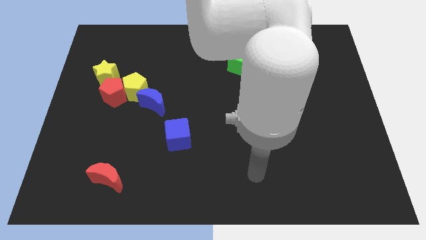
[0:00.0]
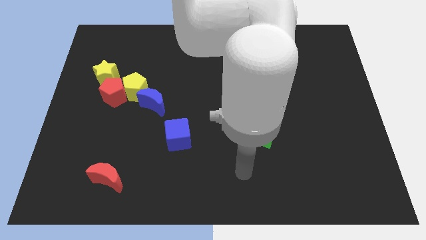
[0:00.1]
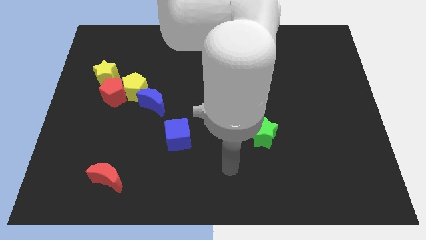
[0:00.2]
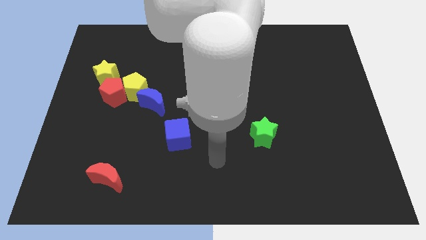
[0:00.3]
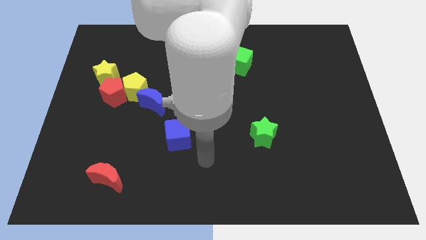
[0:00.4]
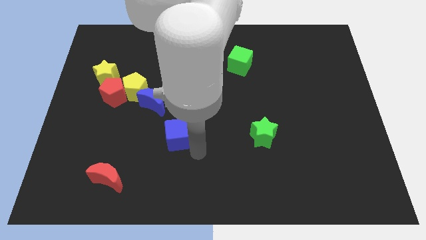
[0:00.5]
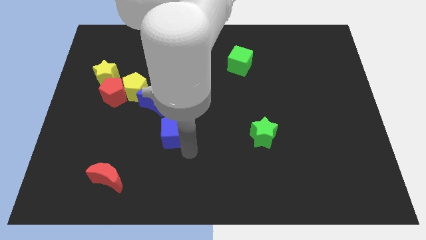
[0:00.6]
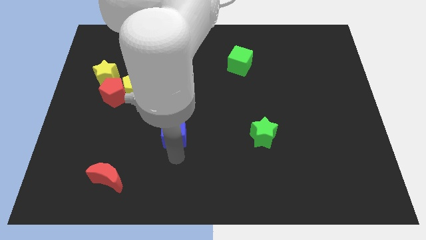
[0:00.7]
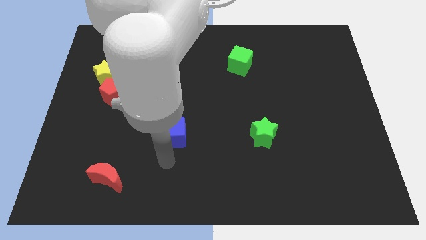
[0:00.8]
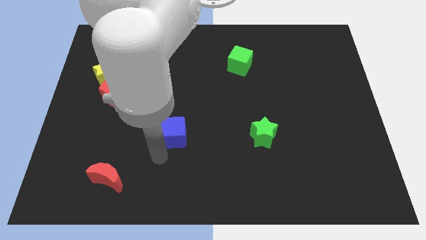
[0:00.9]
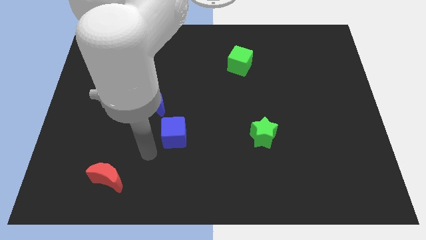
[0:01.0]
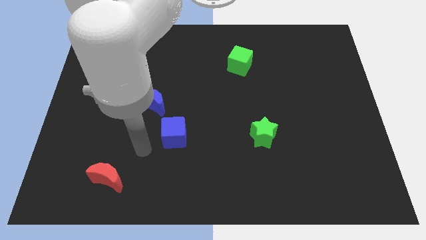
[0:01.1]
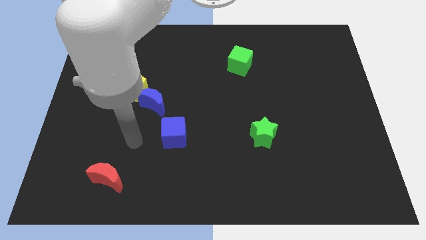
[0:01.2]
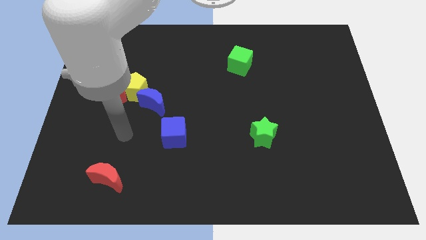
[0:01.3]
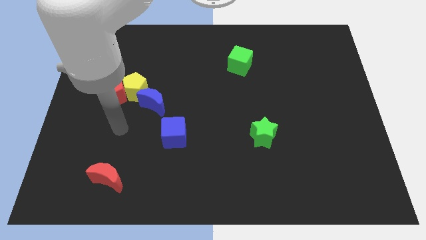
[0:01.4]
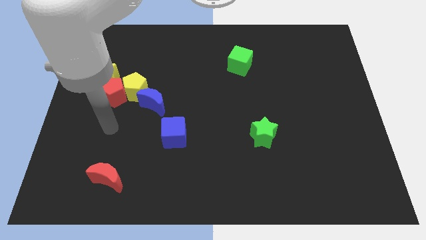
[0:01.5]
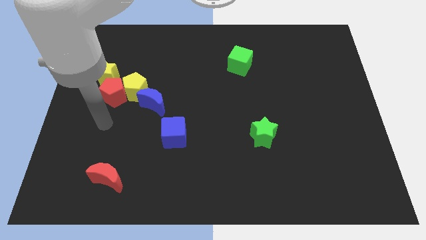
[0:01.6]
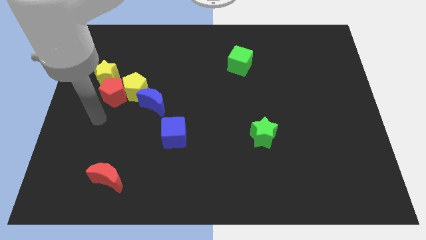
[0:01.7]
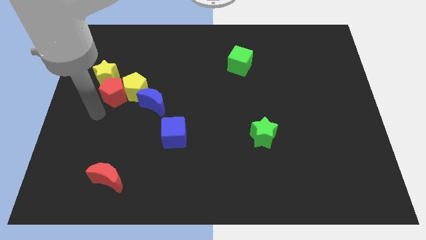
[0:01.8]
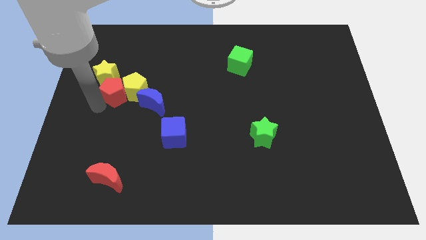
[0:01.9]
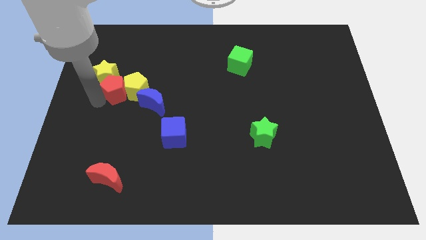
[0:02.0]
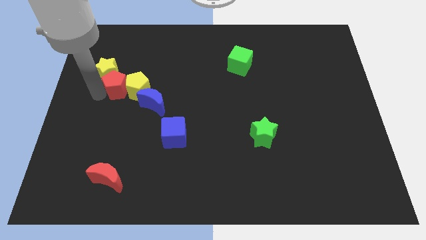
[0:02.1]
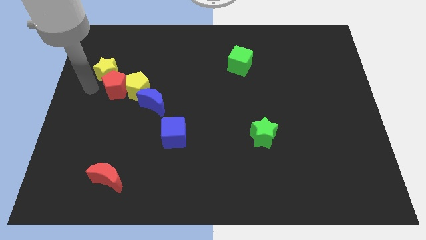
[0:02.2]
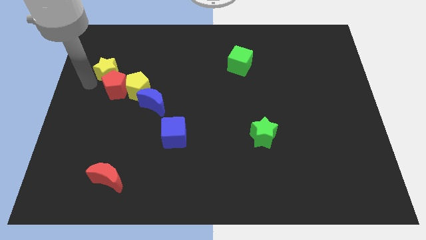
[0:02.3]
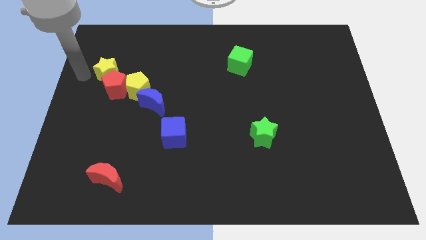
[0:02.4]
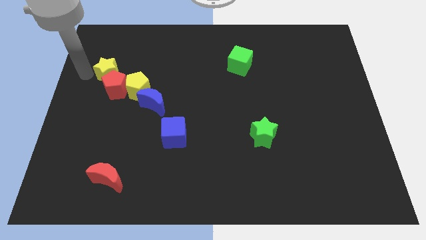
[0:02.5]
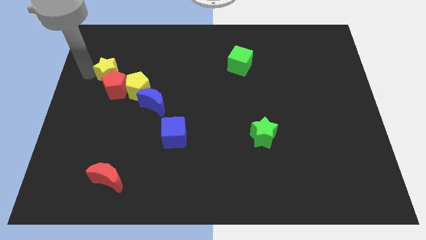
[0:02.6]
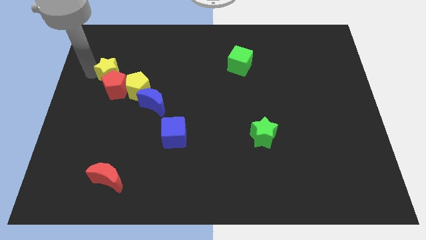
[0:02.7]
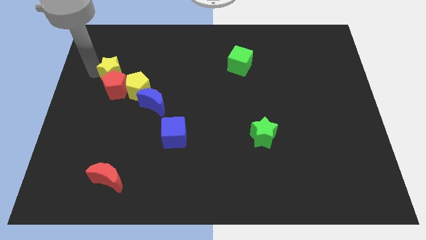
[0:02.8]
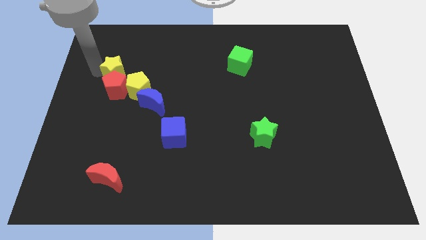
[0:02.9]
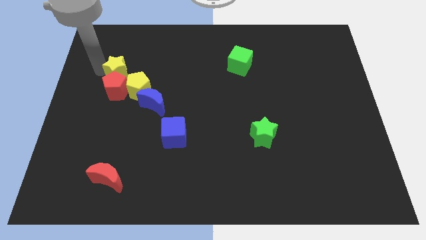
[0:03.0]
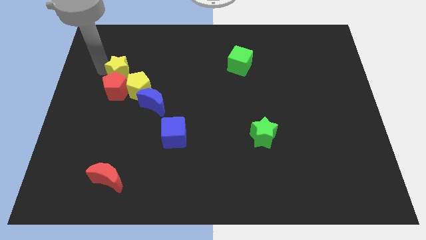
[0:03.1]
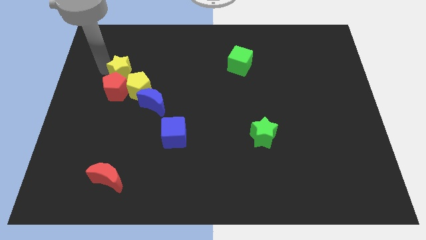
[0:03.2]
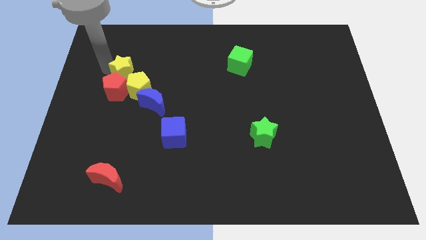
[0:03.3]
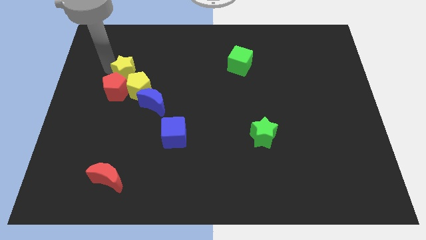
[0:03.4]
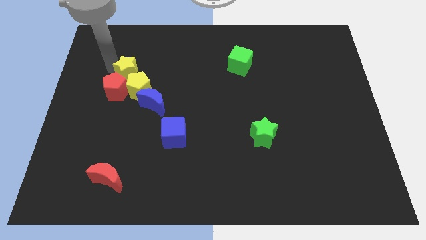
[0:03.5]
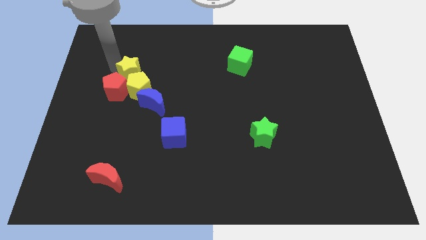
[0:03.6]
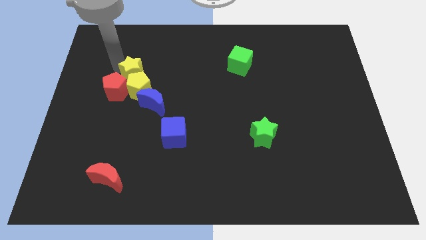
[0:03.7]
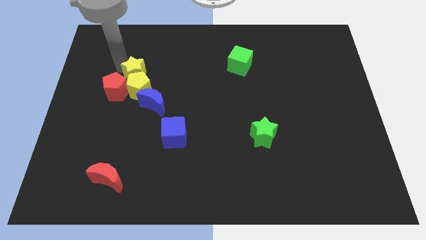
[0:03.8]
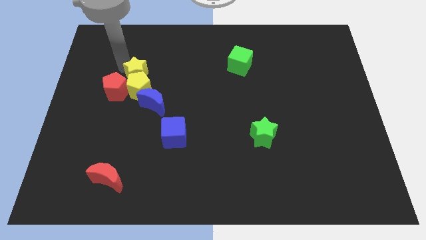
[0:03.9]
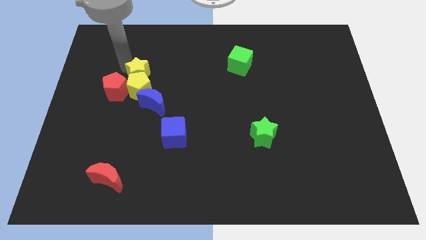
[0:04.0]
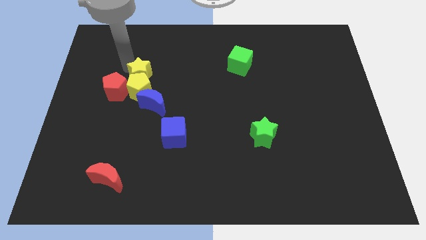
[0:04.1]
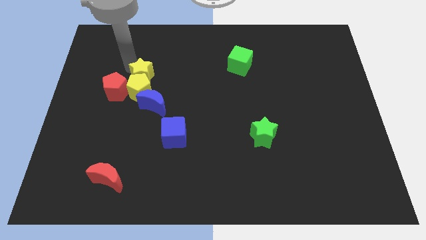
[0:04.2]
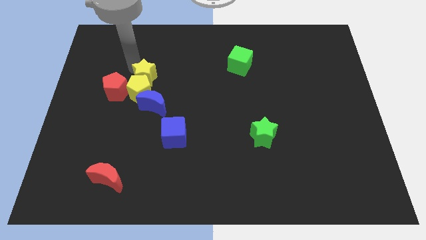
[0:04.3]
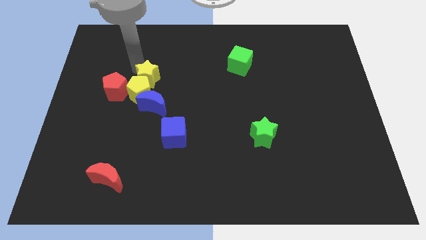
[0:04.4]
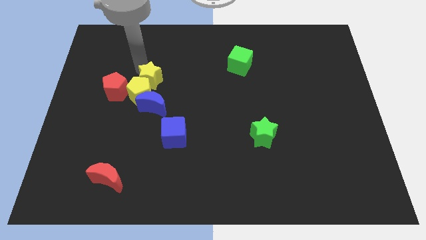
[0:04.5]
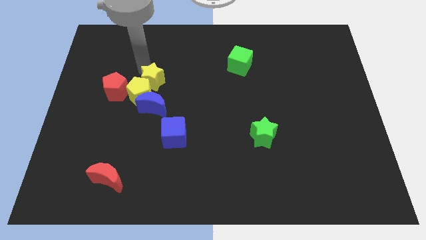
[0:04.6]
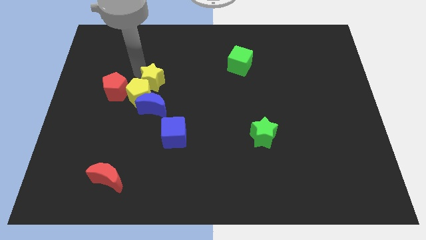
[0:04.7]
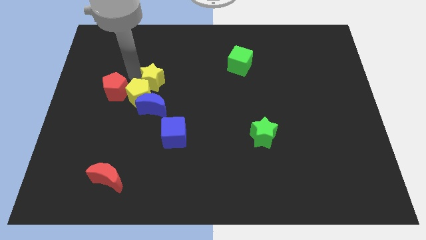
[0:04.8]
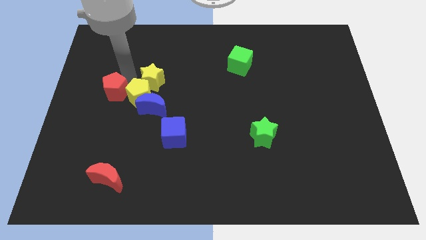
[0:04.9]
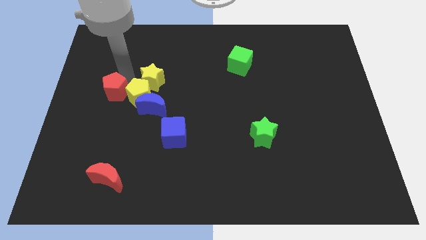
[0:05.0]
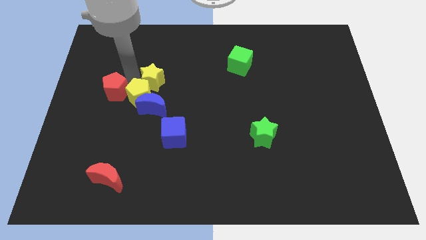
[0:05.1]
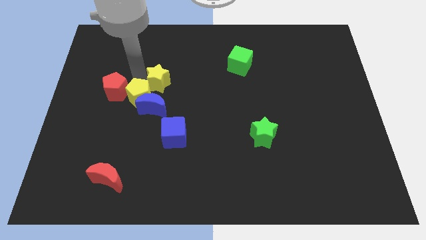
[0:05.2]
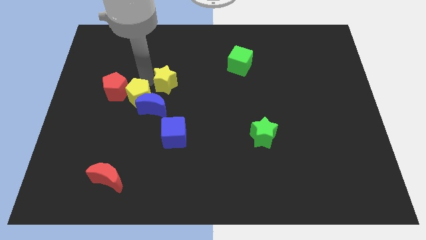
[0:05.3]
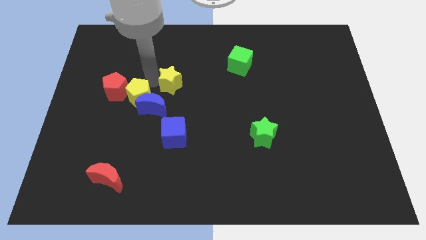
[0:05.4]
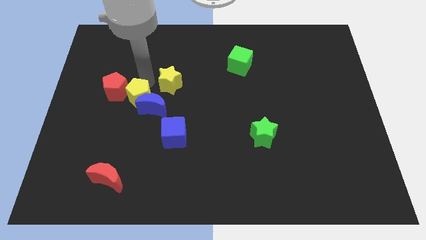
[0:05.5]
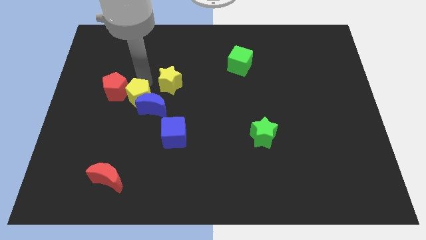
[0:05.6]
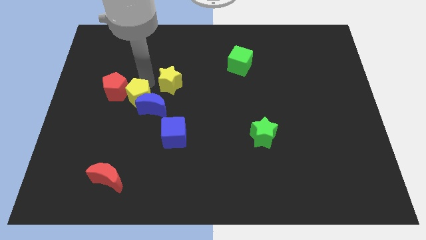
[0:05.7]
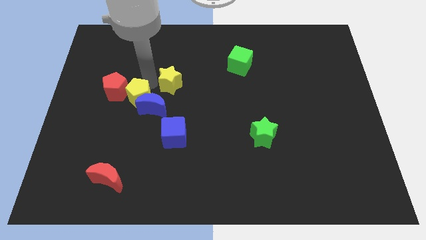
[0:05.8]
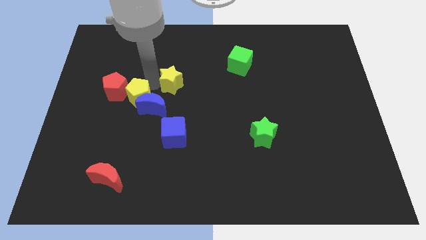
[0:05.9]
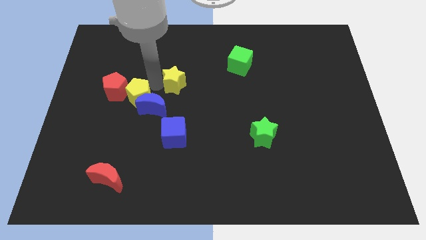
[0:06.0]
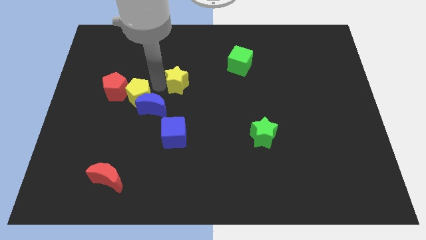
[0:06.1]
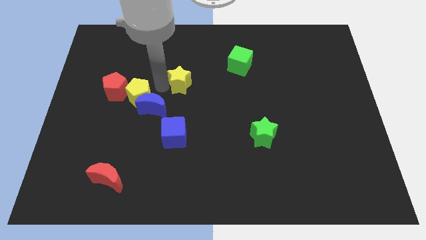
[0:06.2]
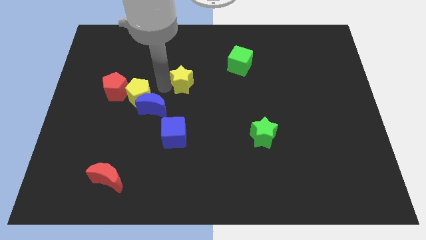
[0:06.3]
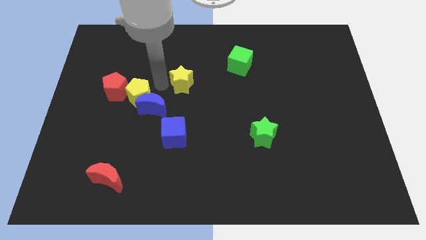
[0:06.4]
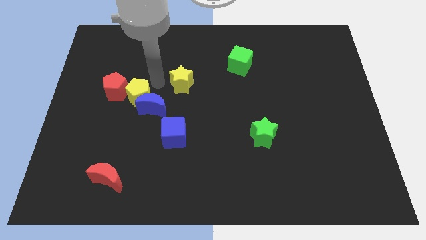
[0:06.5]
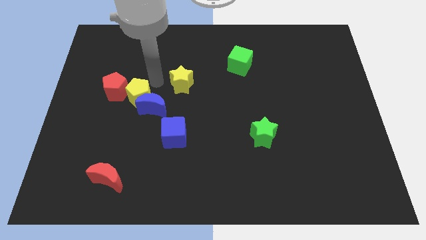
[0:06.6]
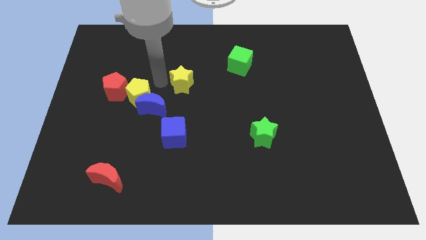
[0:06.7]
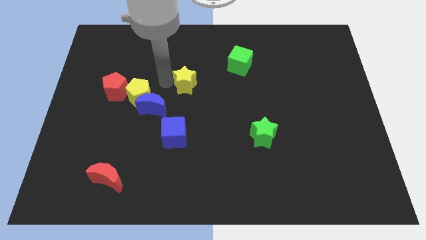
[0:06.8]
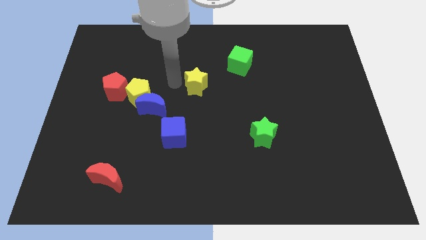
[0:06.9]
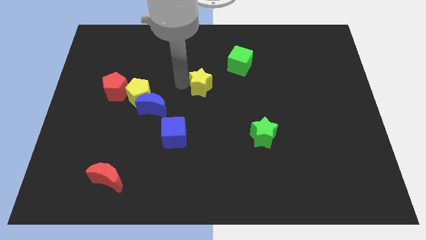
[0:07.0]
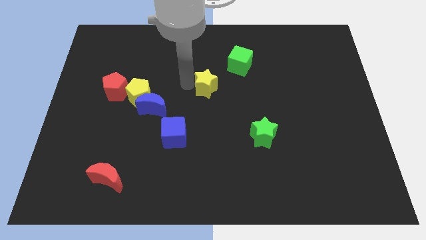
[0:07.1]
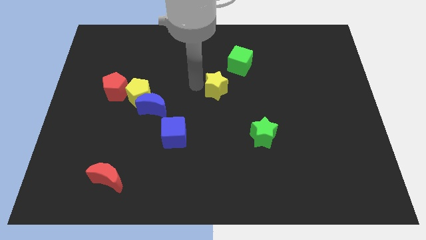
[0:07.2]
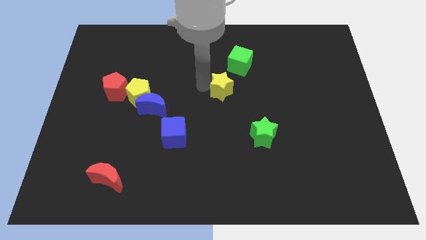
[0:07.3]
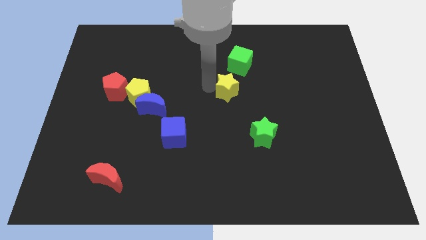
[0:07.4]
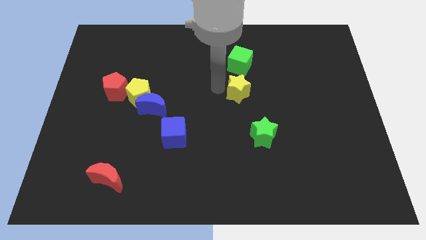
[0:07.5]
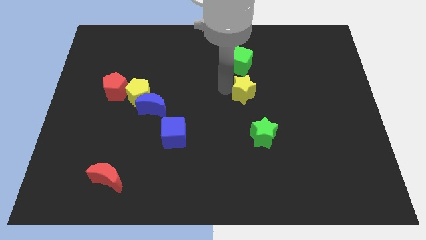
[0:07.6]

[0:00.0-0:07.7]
put the yellow star to the top side of the green star
